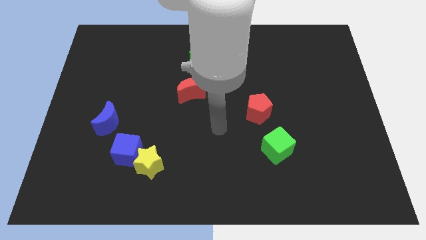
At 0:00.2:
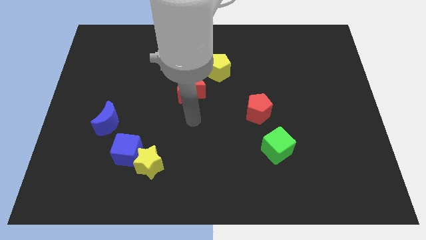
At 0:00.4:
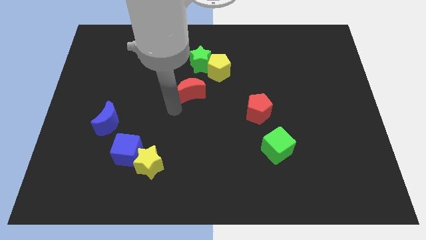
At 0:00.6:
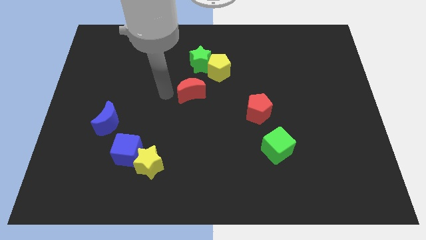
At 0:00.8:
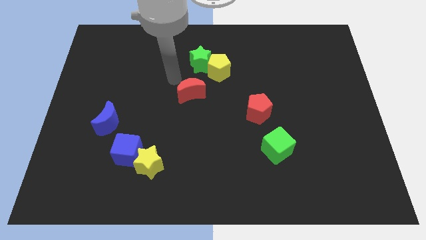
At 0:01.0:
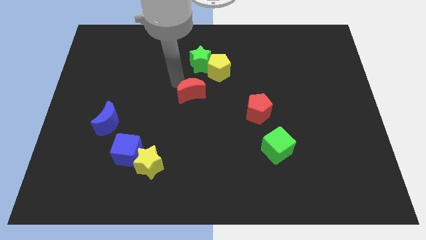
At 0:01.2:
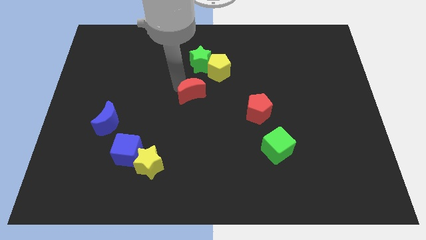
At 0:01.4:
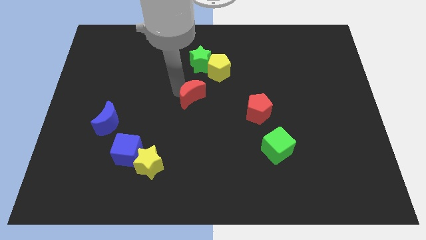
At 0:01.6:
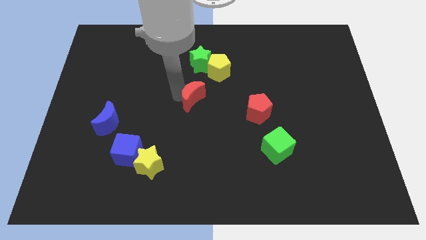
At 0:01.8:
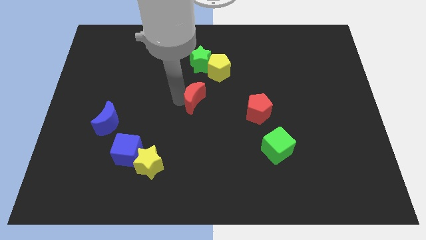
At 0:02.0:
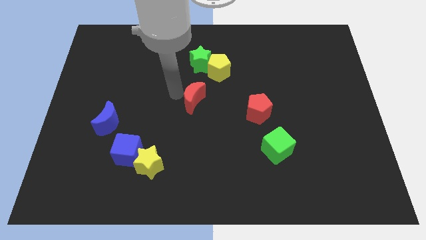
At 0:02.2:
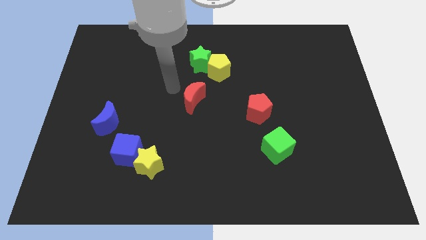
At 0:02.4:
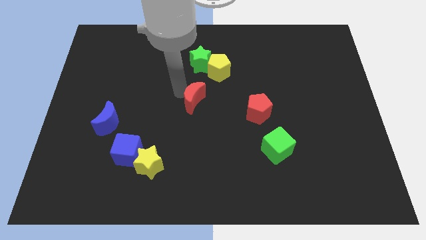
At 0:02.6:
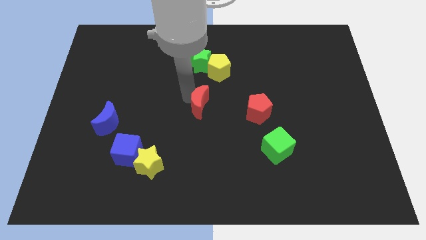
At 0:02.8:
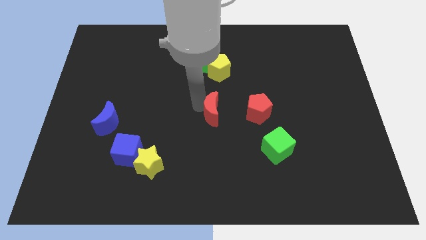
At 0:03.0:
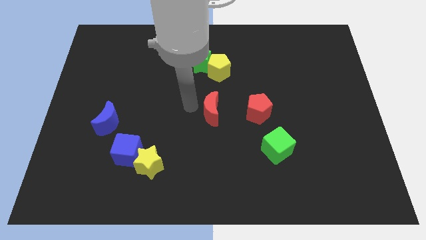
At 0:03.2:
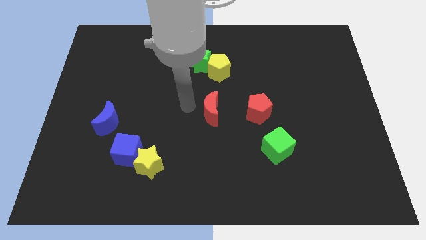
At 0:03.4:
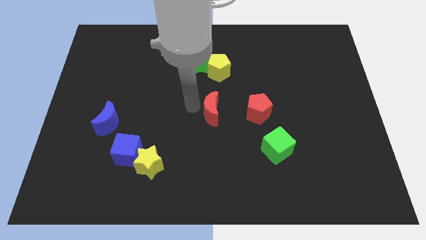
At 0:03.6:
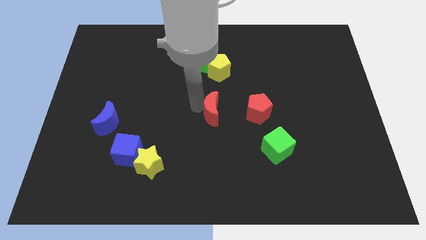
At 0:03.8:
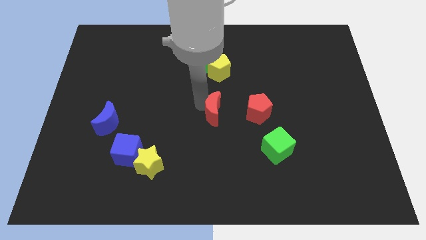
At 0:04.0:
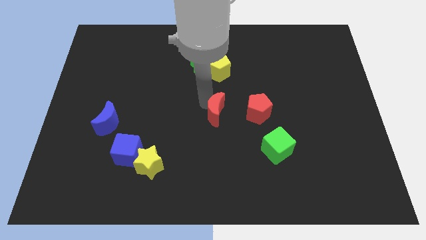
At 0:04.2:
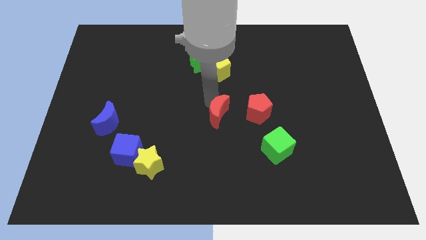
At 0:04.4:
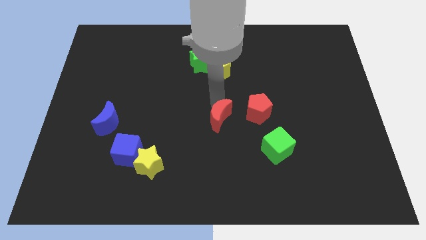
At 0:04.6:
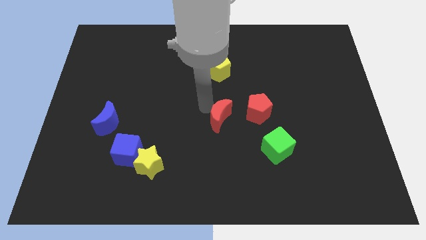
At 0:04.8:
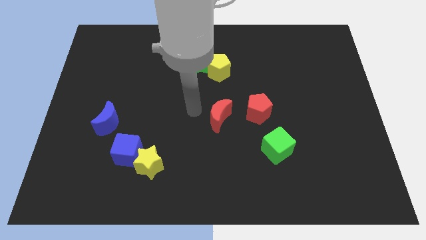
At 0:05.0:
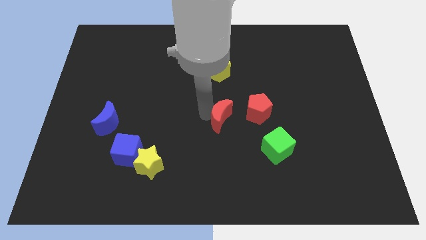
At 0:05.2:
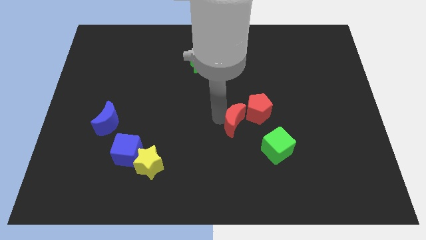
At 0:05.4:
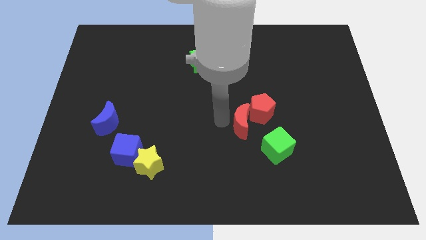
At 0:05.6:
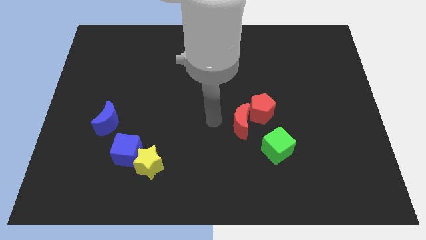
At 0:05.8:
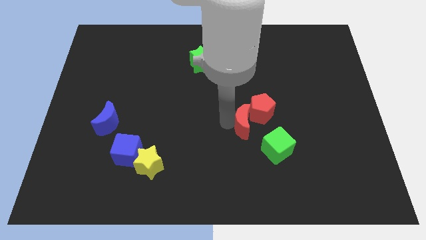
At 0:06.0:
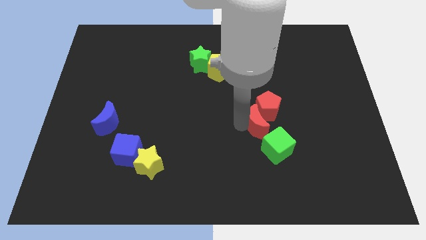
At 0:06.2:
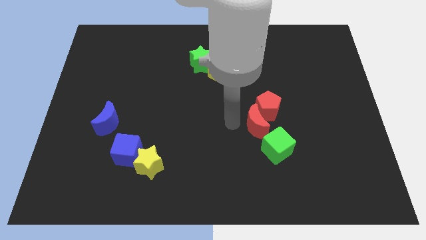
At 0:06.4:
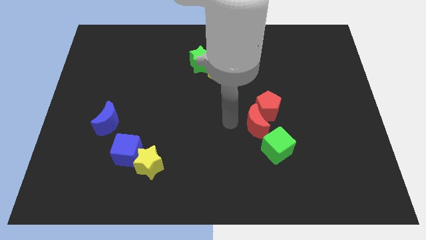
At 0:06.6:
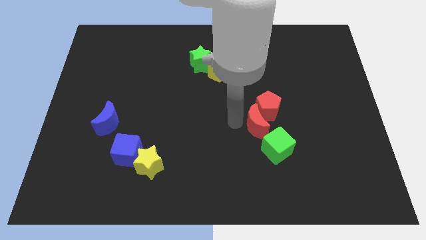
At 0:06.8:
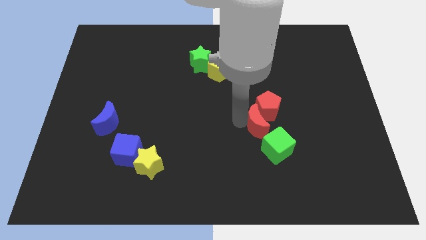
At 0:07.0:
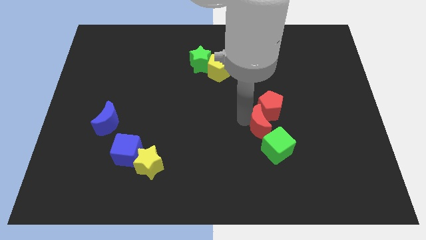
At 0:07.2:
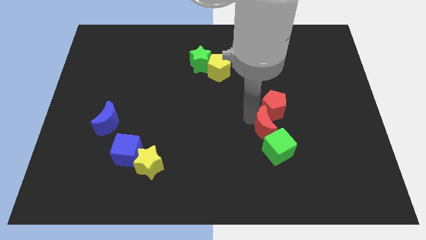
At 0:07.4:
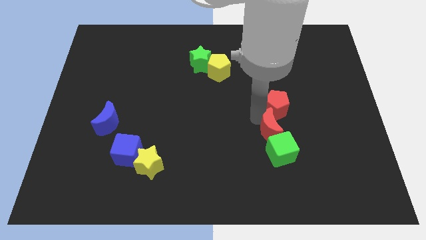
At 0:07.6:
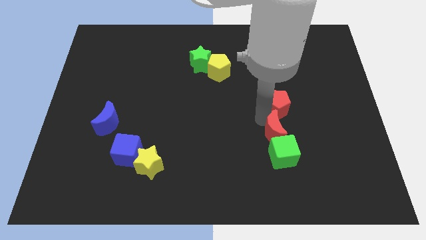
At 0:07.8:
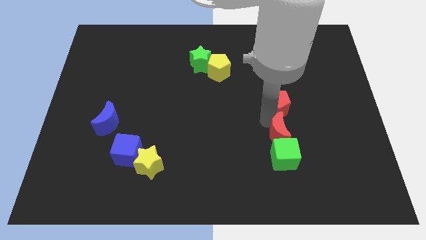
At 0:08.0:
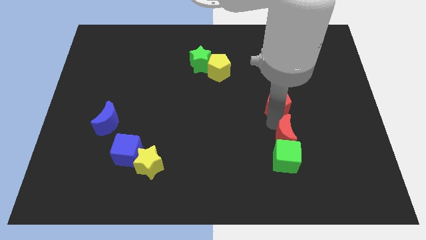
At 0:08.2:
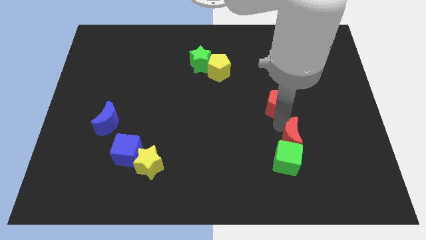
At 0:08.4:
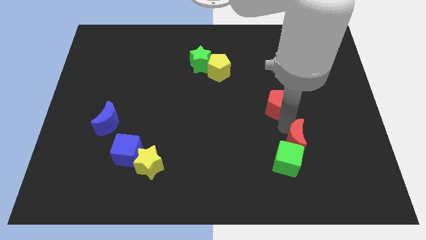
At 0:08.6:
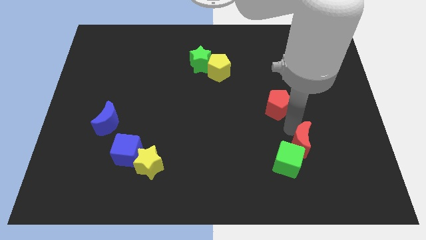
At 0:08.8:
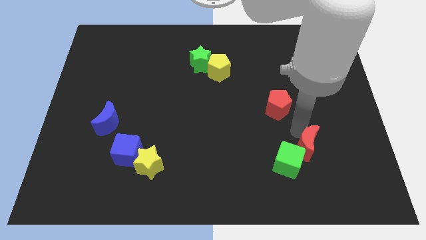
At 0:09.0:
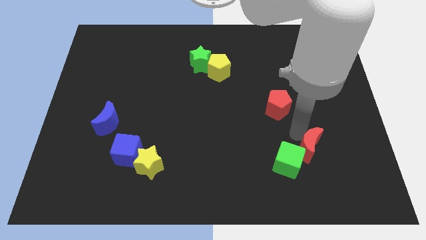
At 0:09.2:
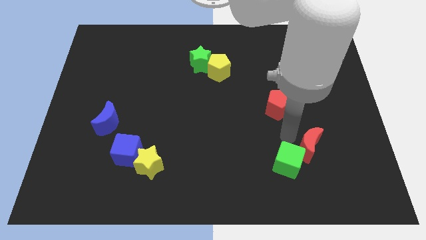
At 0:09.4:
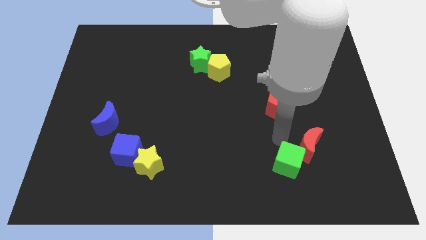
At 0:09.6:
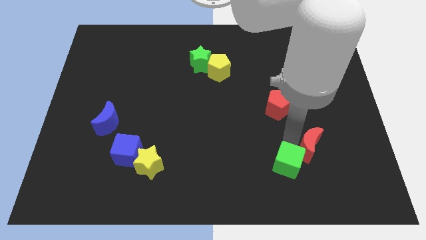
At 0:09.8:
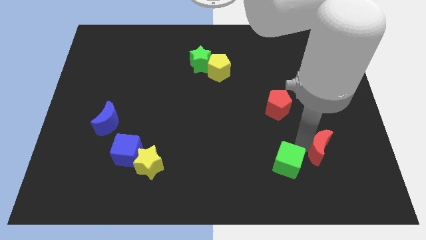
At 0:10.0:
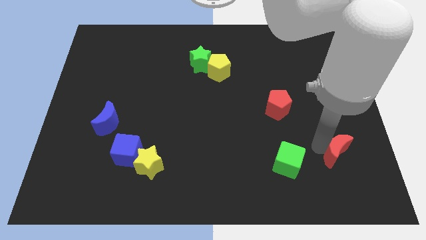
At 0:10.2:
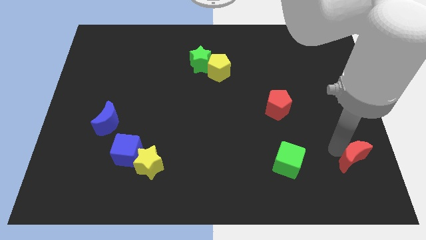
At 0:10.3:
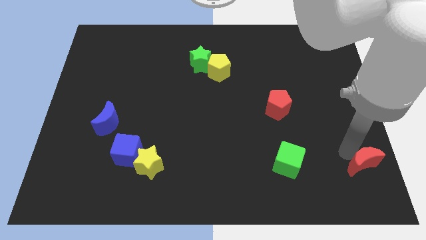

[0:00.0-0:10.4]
move the red moon to the bottom right

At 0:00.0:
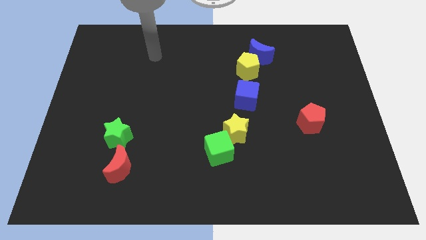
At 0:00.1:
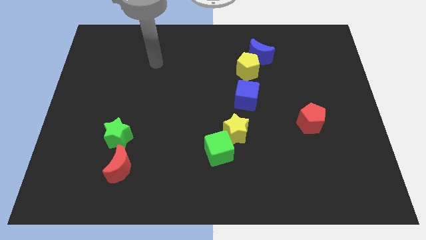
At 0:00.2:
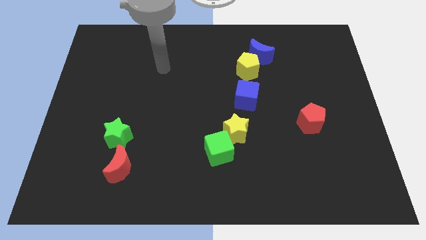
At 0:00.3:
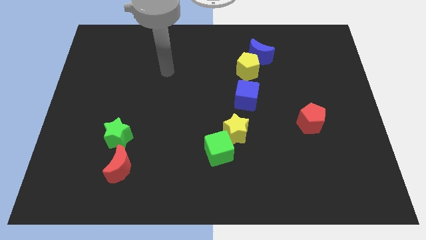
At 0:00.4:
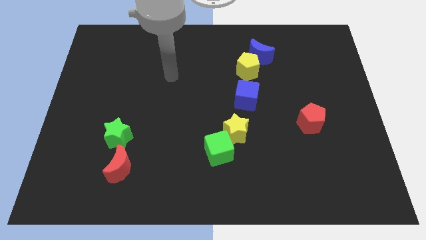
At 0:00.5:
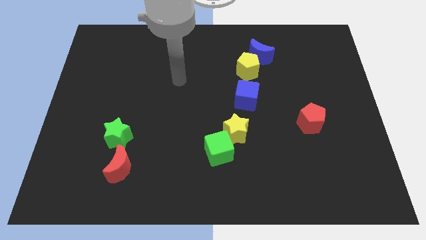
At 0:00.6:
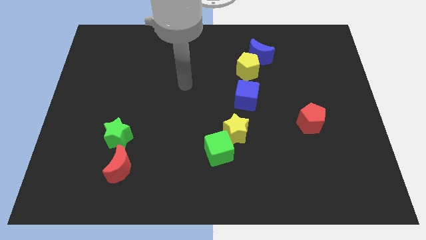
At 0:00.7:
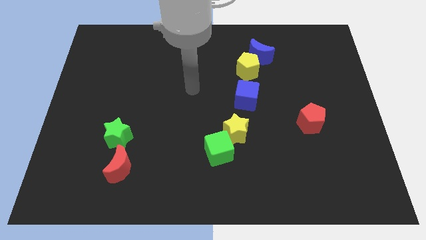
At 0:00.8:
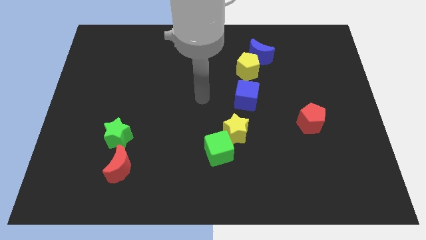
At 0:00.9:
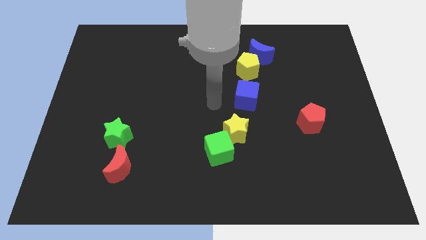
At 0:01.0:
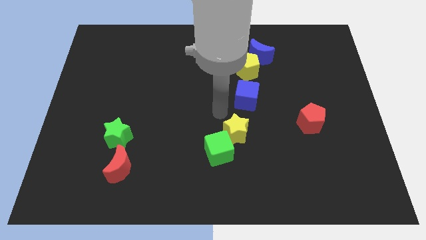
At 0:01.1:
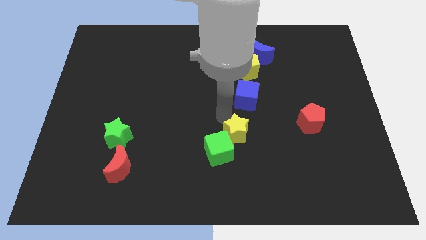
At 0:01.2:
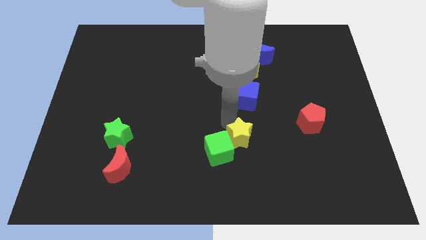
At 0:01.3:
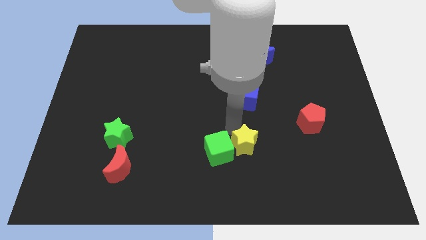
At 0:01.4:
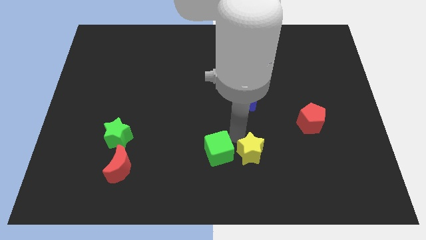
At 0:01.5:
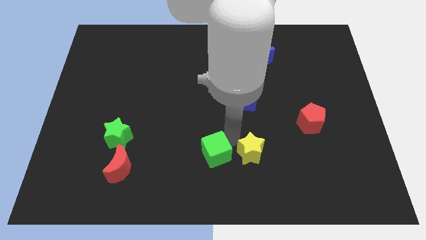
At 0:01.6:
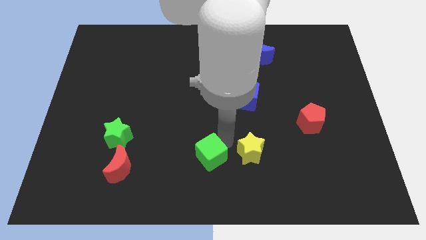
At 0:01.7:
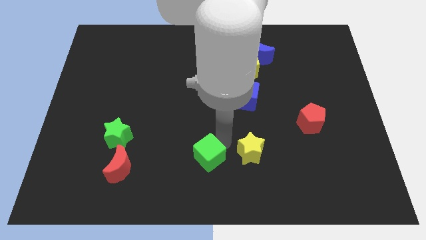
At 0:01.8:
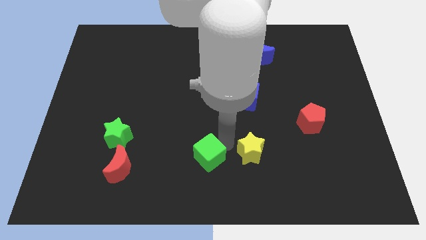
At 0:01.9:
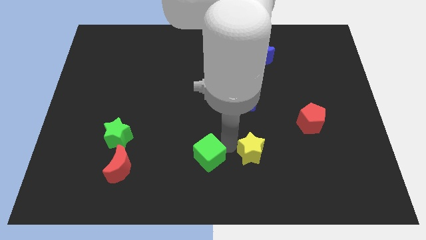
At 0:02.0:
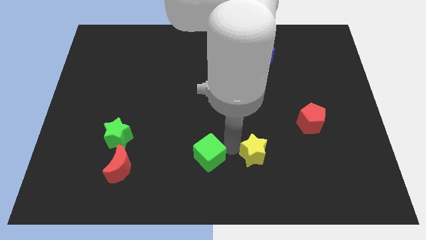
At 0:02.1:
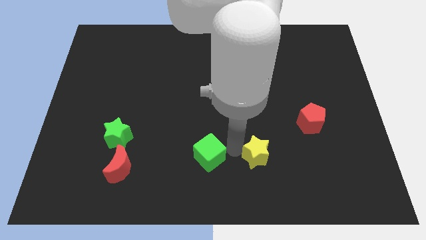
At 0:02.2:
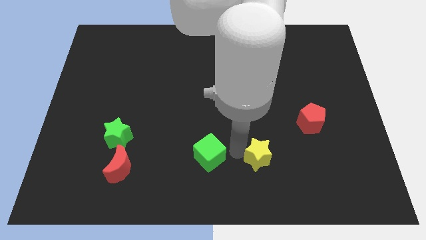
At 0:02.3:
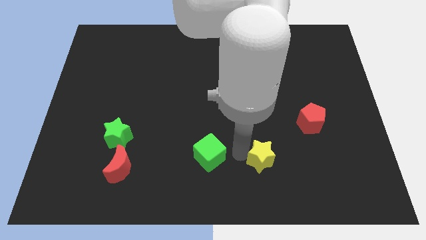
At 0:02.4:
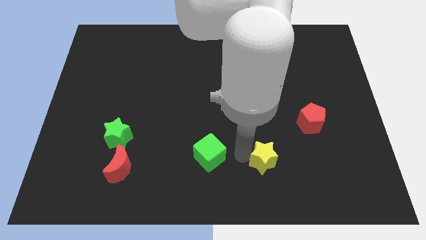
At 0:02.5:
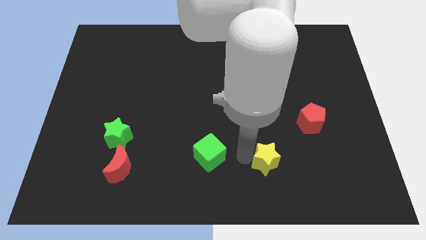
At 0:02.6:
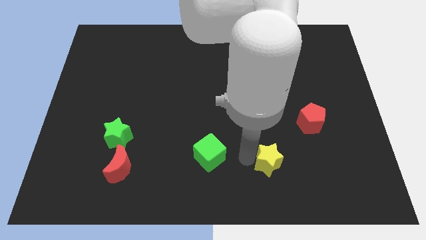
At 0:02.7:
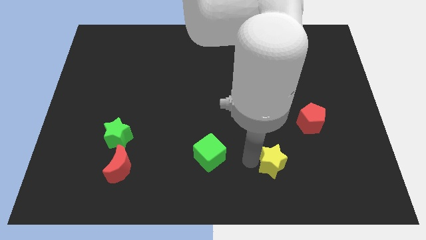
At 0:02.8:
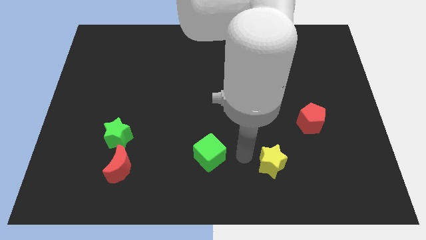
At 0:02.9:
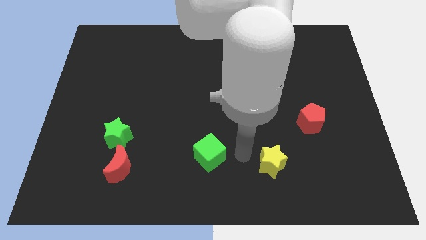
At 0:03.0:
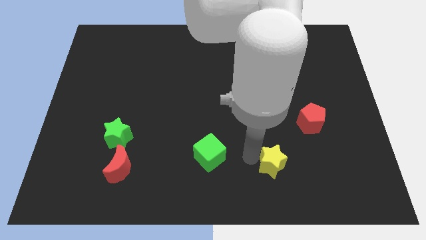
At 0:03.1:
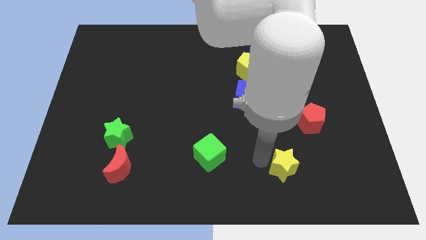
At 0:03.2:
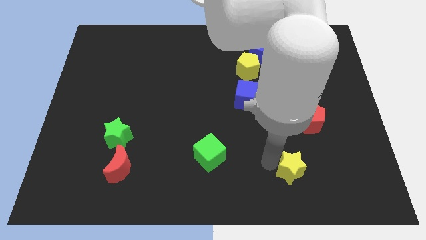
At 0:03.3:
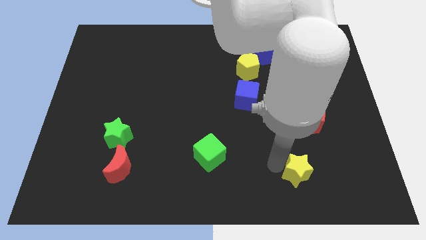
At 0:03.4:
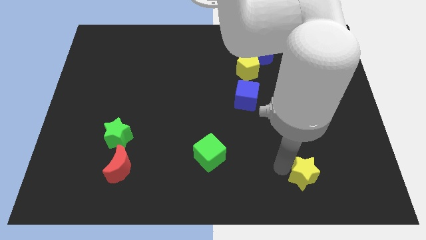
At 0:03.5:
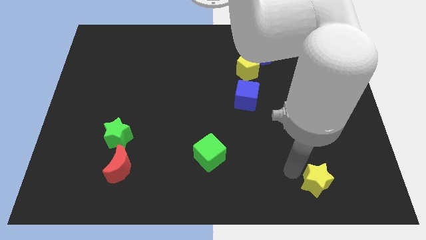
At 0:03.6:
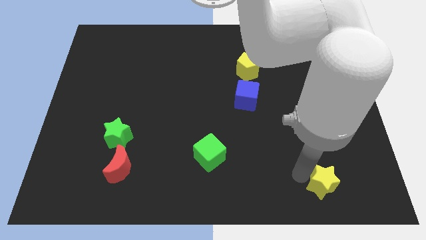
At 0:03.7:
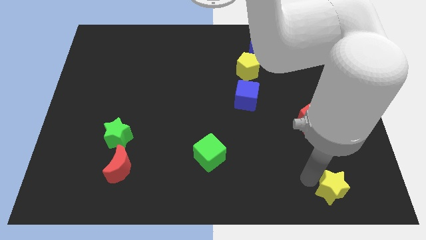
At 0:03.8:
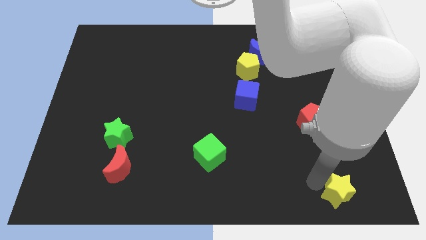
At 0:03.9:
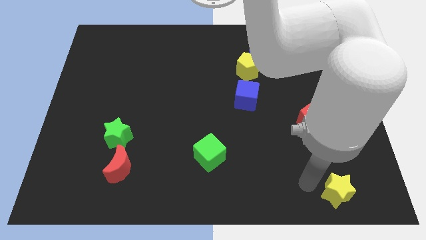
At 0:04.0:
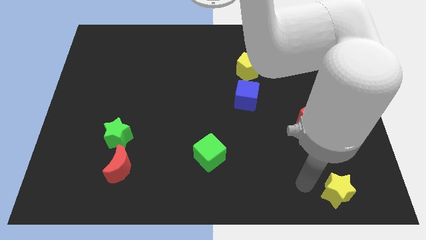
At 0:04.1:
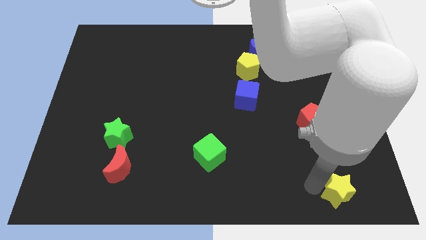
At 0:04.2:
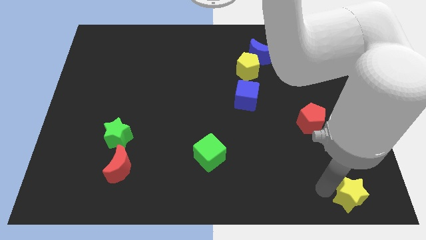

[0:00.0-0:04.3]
push the yellow star to the lower right corner
